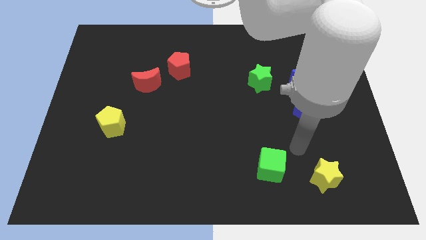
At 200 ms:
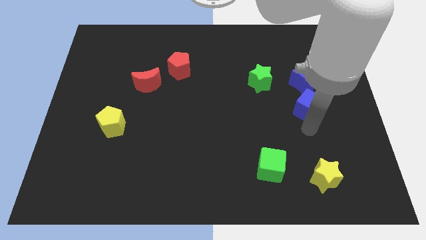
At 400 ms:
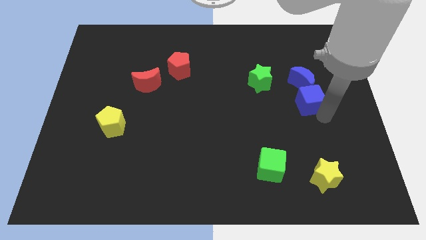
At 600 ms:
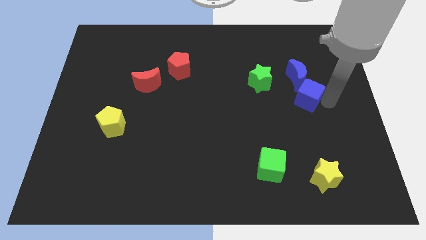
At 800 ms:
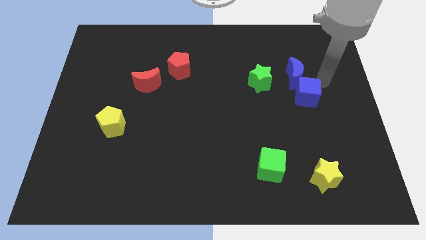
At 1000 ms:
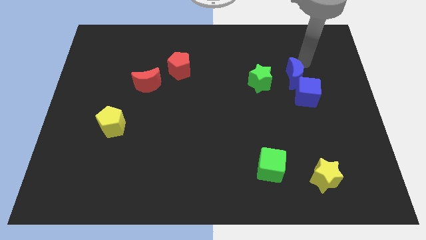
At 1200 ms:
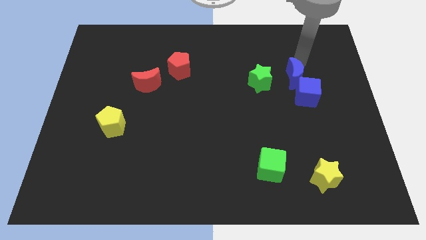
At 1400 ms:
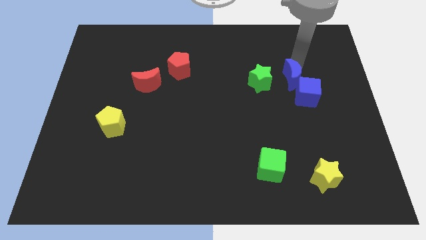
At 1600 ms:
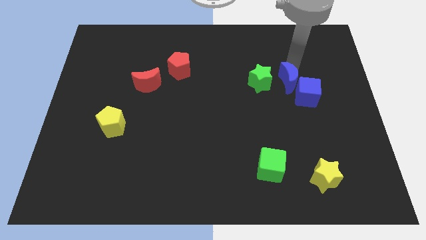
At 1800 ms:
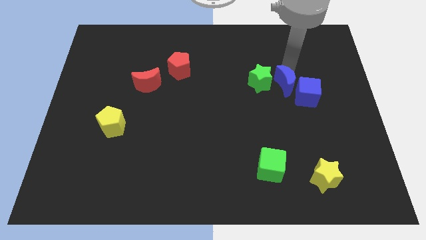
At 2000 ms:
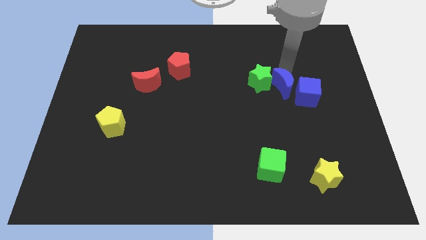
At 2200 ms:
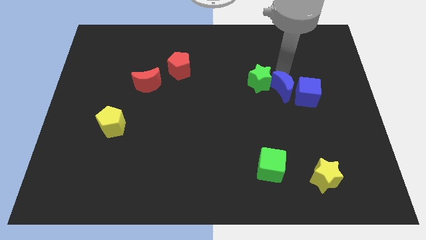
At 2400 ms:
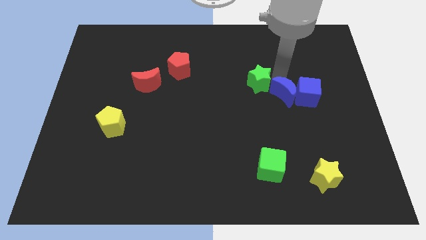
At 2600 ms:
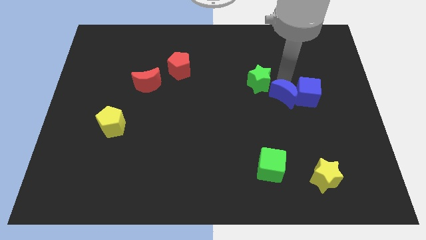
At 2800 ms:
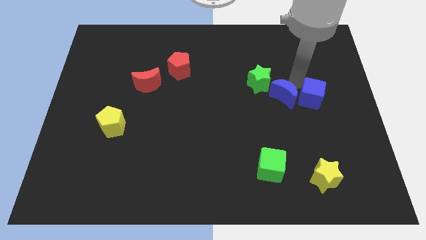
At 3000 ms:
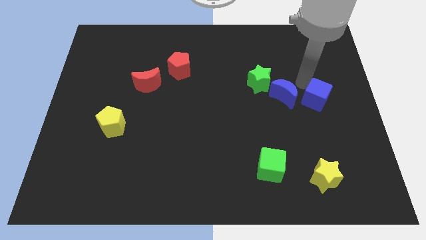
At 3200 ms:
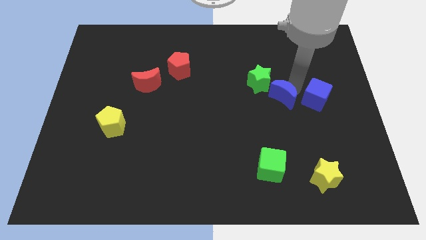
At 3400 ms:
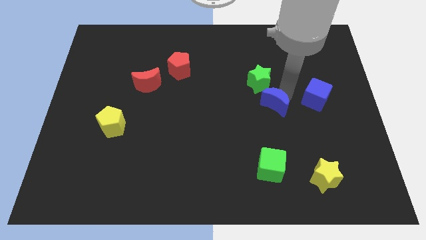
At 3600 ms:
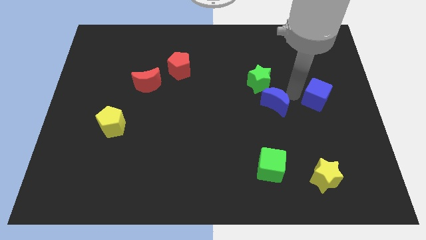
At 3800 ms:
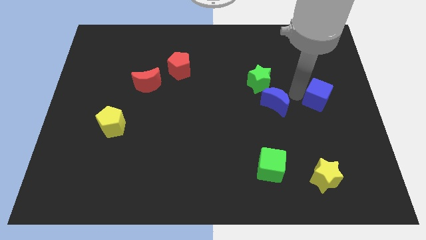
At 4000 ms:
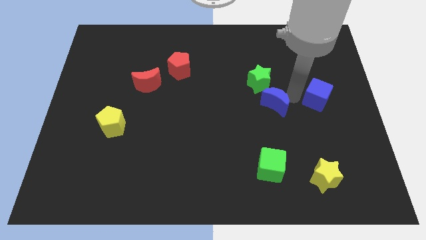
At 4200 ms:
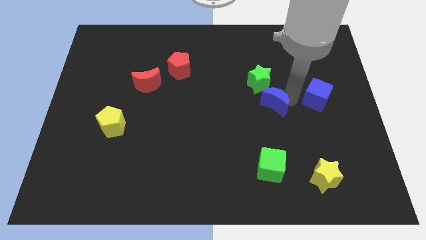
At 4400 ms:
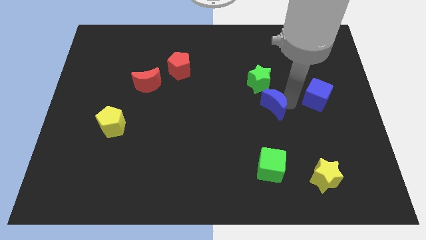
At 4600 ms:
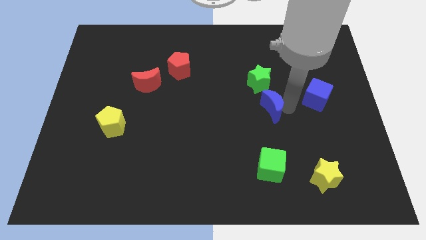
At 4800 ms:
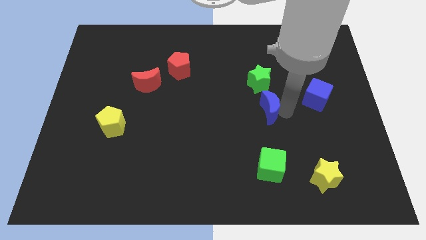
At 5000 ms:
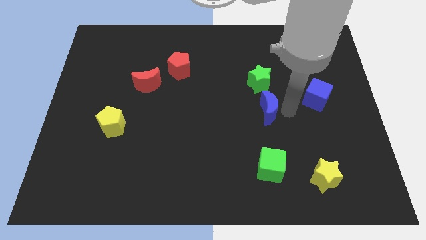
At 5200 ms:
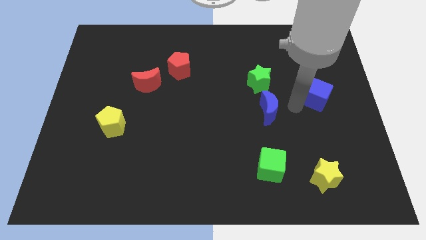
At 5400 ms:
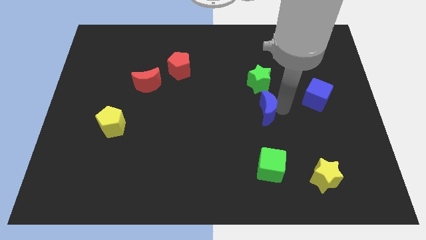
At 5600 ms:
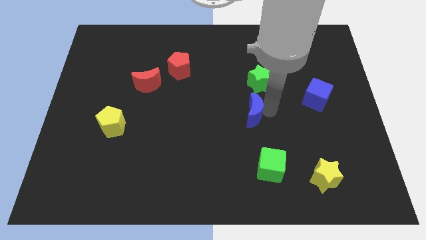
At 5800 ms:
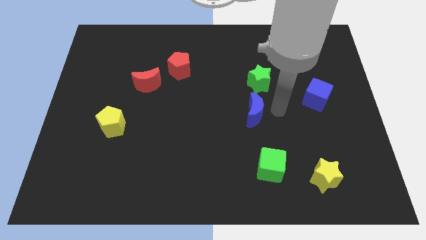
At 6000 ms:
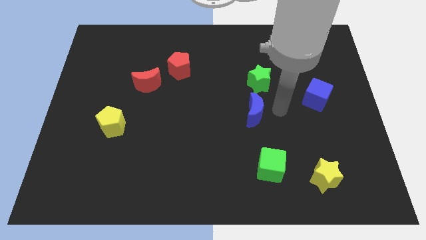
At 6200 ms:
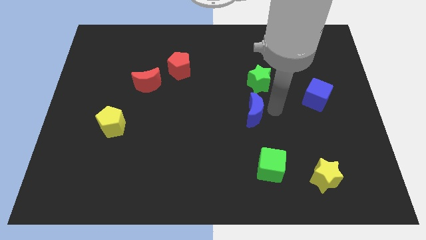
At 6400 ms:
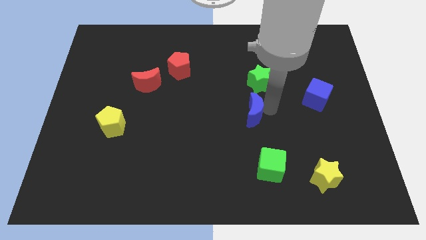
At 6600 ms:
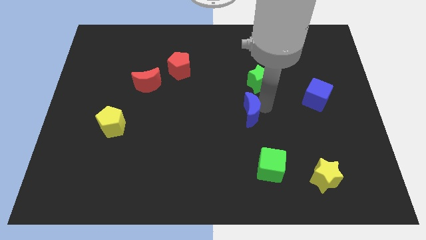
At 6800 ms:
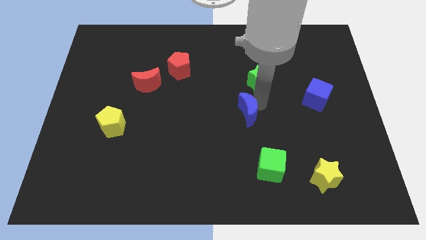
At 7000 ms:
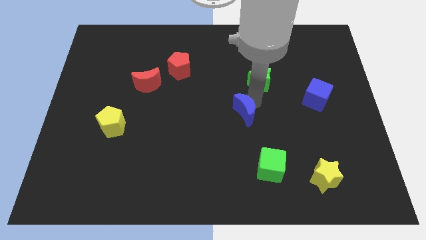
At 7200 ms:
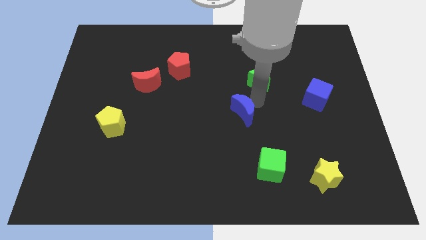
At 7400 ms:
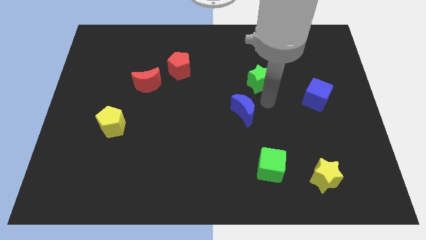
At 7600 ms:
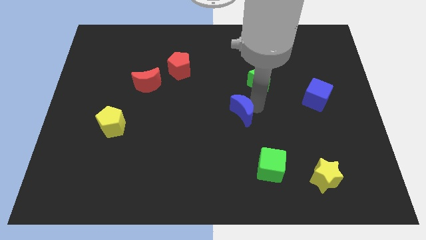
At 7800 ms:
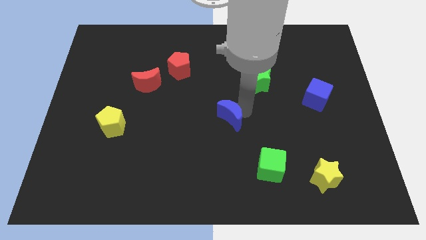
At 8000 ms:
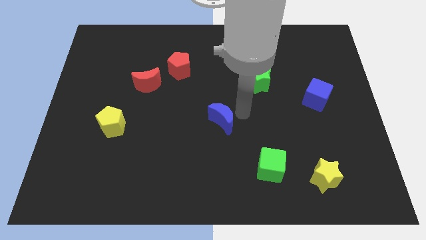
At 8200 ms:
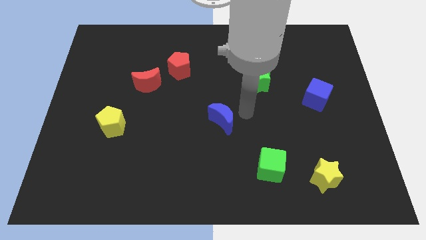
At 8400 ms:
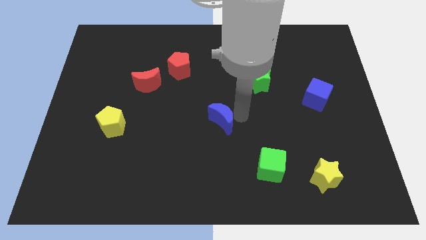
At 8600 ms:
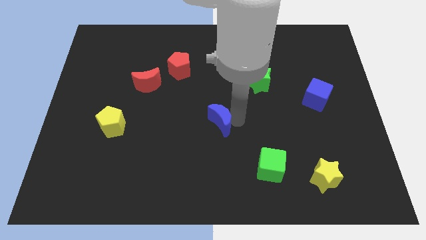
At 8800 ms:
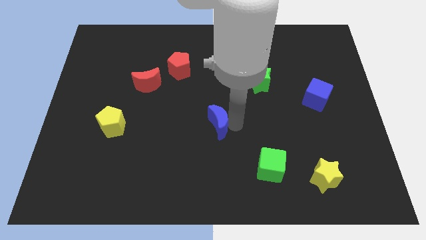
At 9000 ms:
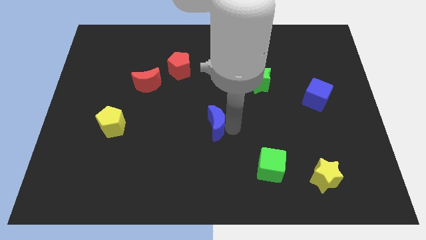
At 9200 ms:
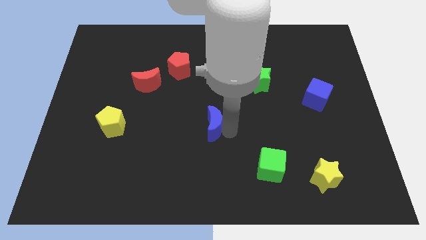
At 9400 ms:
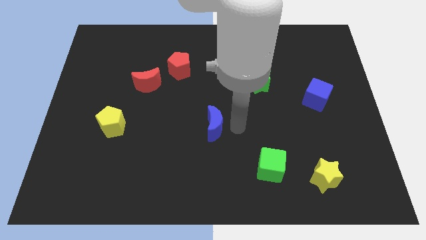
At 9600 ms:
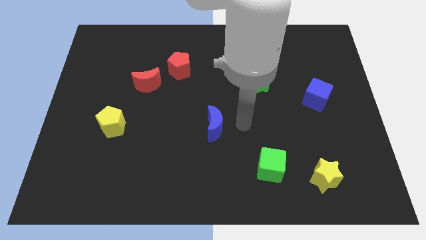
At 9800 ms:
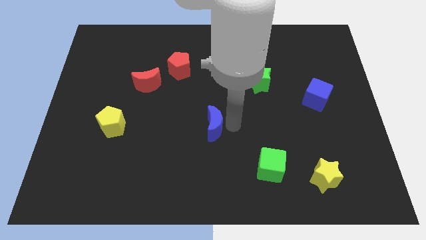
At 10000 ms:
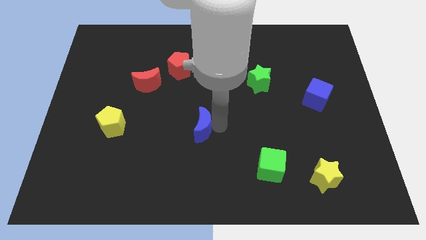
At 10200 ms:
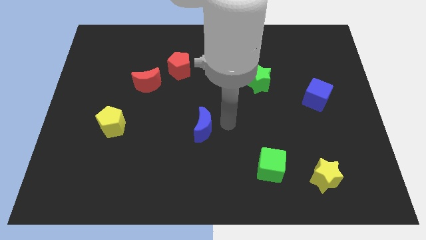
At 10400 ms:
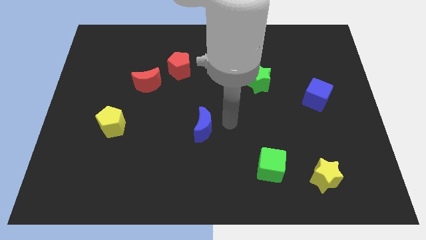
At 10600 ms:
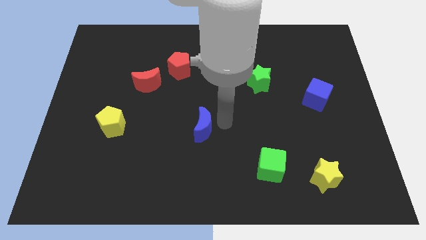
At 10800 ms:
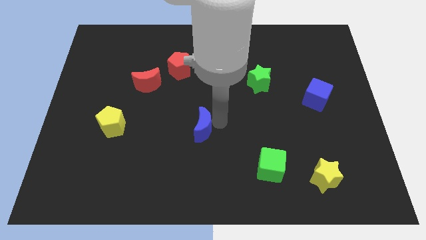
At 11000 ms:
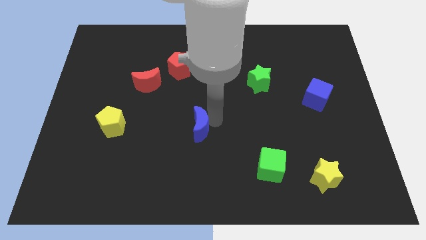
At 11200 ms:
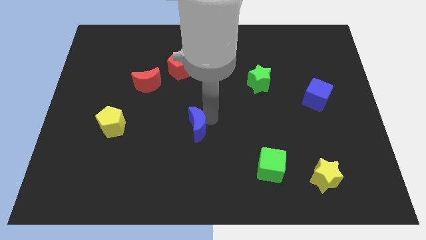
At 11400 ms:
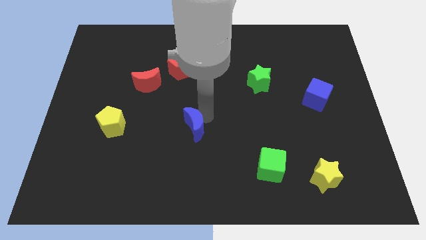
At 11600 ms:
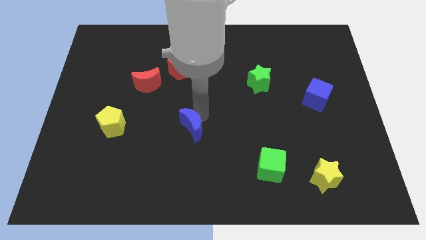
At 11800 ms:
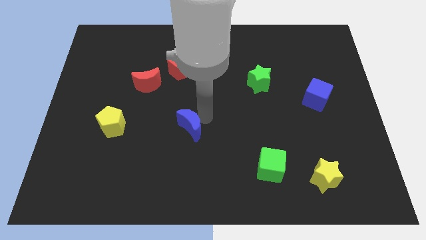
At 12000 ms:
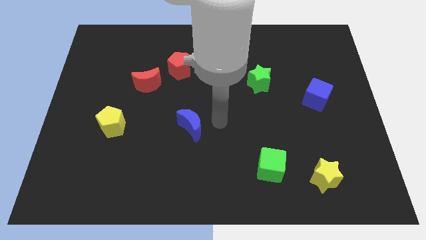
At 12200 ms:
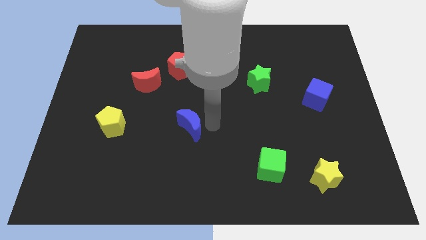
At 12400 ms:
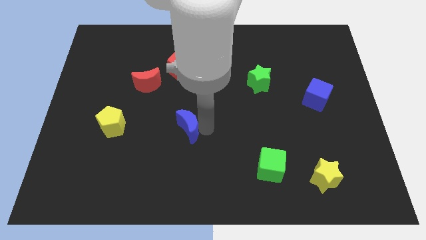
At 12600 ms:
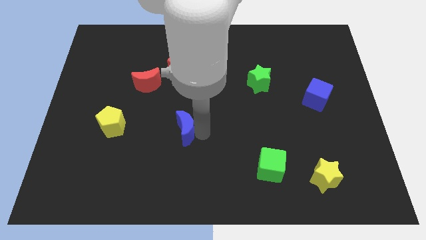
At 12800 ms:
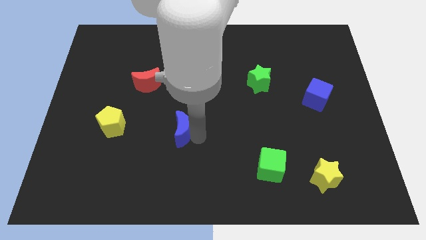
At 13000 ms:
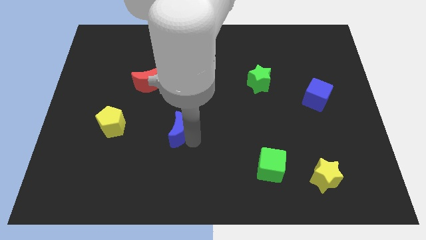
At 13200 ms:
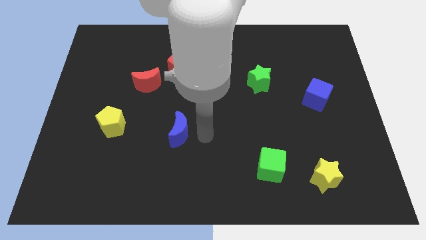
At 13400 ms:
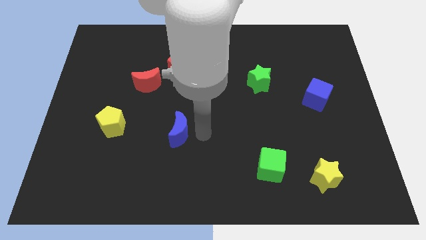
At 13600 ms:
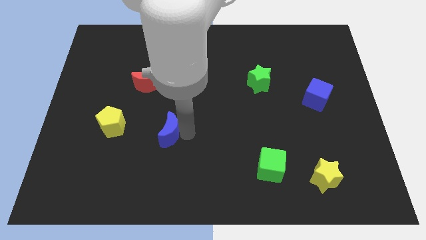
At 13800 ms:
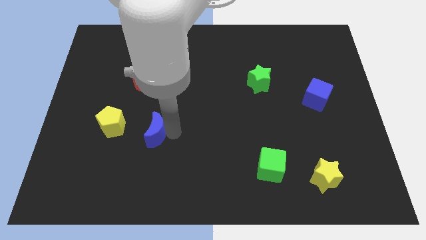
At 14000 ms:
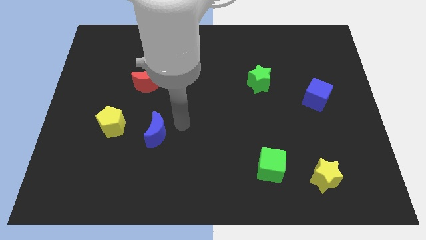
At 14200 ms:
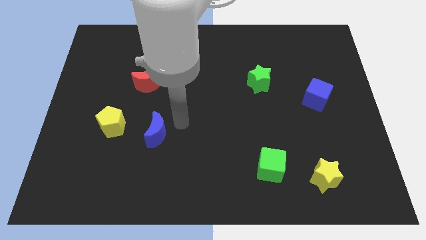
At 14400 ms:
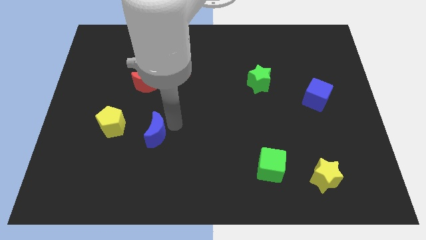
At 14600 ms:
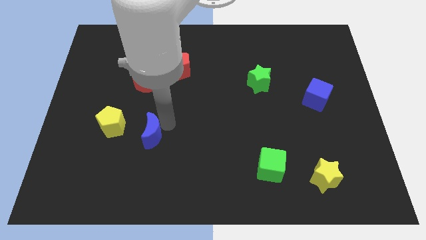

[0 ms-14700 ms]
push the blue moon to the bottom right of the yellow pentagon
